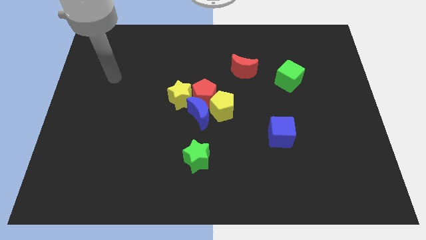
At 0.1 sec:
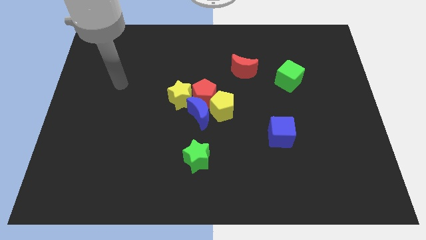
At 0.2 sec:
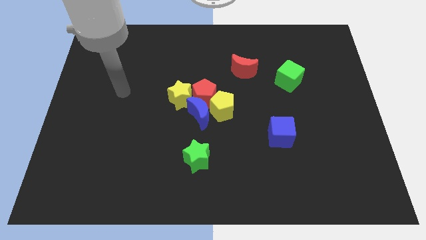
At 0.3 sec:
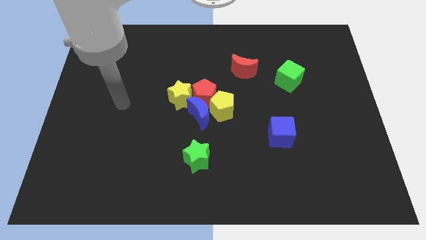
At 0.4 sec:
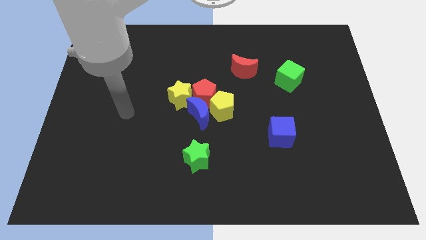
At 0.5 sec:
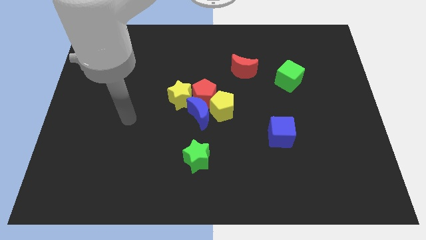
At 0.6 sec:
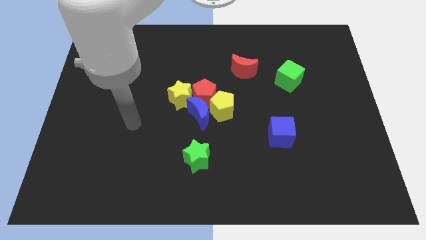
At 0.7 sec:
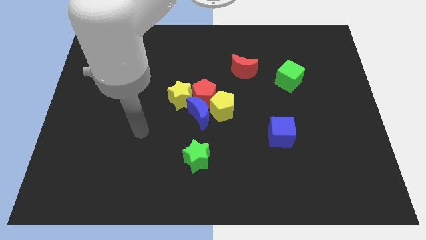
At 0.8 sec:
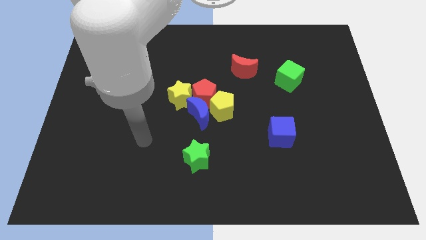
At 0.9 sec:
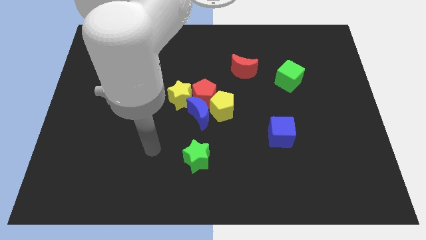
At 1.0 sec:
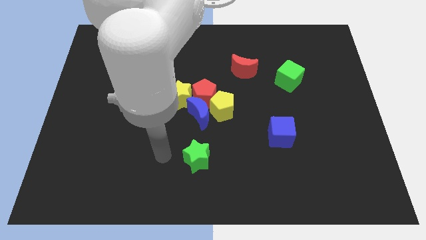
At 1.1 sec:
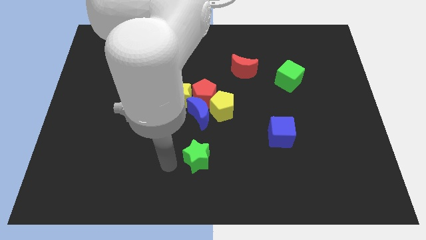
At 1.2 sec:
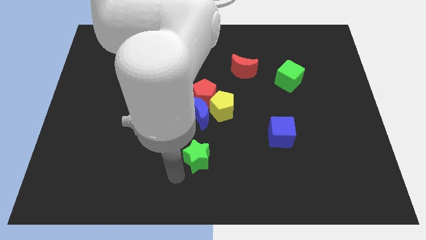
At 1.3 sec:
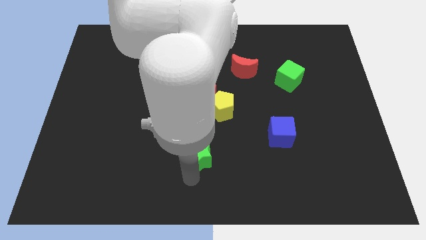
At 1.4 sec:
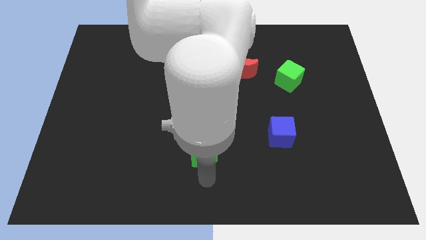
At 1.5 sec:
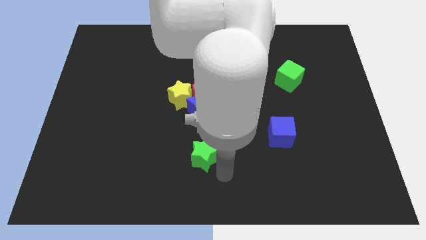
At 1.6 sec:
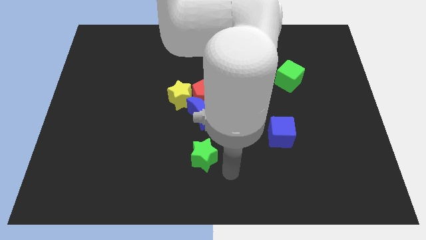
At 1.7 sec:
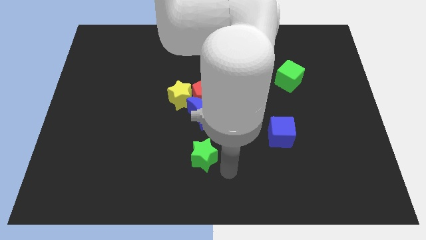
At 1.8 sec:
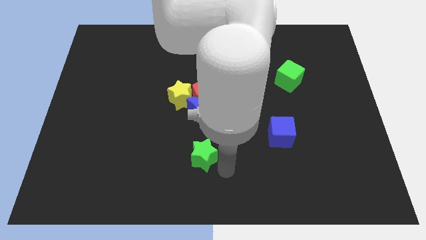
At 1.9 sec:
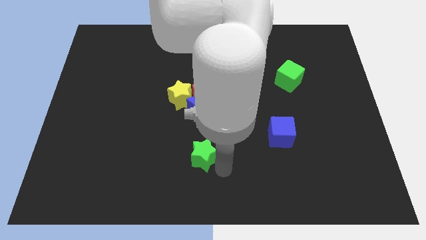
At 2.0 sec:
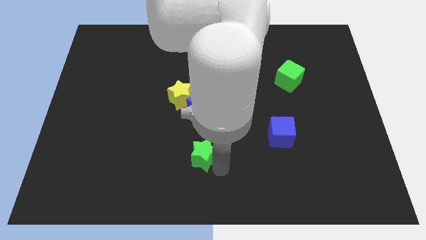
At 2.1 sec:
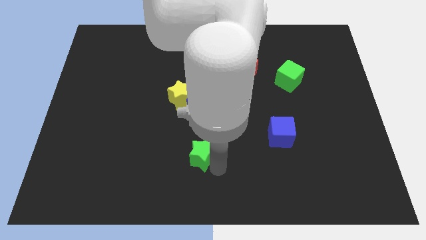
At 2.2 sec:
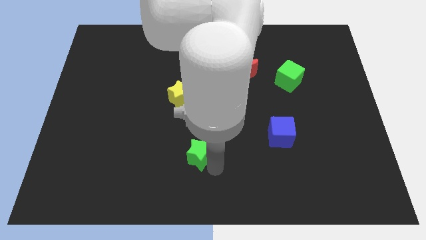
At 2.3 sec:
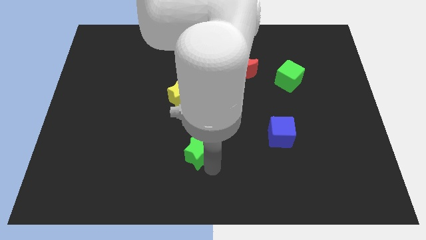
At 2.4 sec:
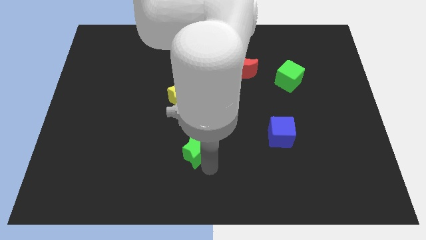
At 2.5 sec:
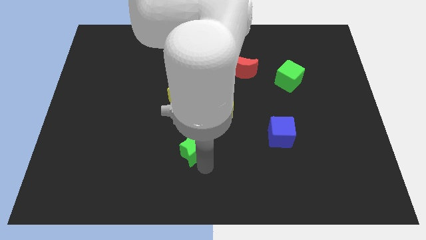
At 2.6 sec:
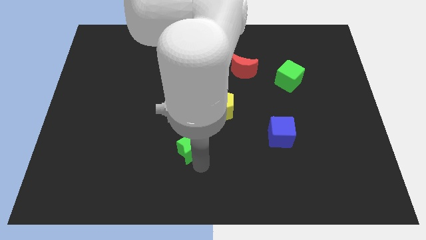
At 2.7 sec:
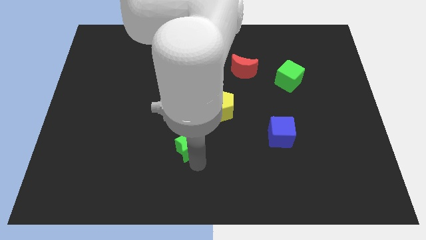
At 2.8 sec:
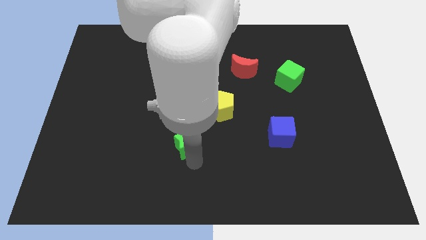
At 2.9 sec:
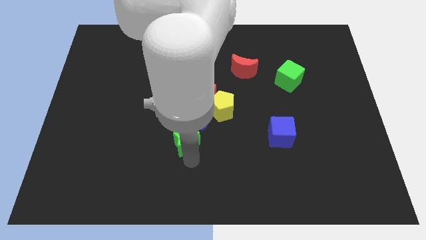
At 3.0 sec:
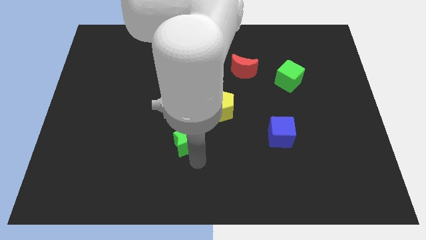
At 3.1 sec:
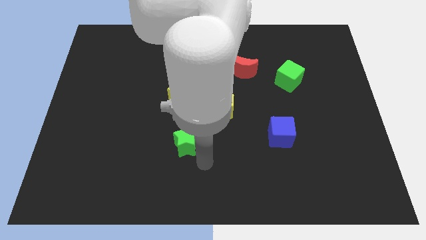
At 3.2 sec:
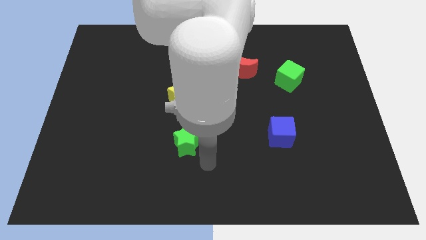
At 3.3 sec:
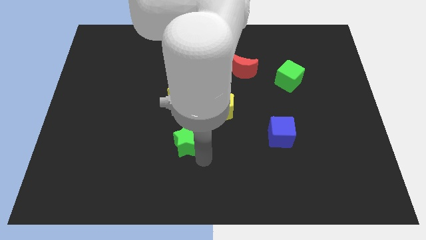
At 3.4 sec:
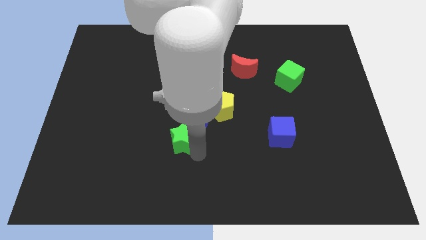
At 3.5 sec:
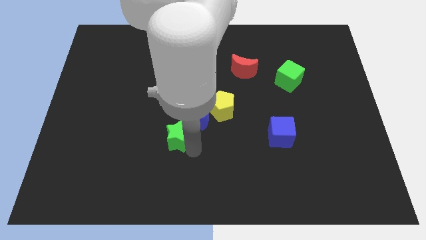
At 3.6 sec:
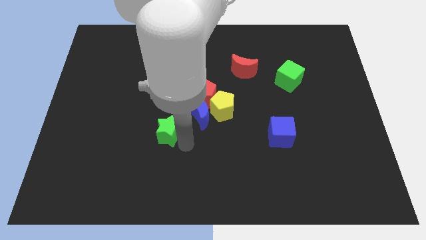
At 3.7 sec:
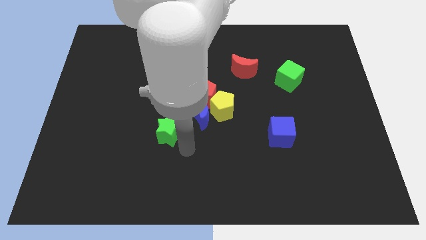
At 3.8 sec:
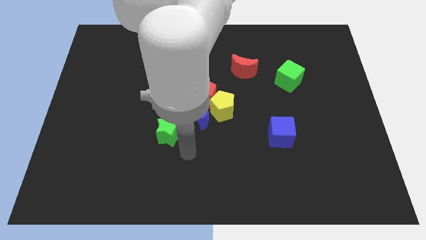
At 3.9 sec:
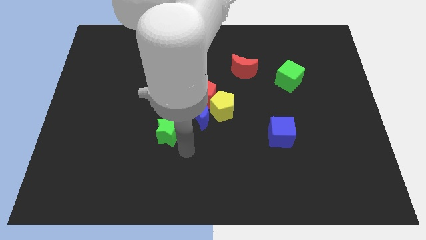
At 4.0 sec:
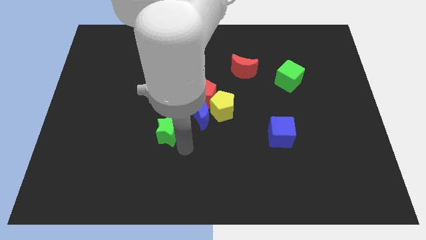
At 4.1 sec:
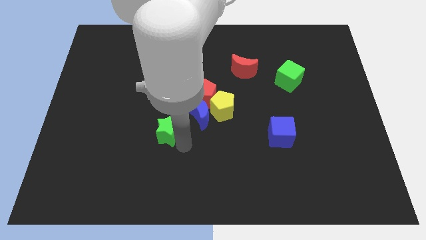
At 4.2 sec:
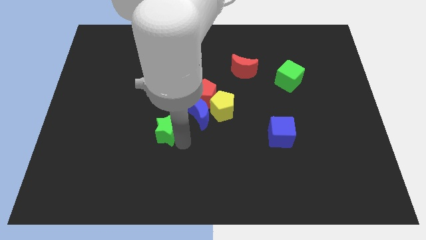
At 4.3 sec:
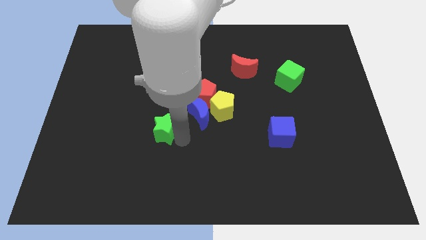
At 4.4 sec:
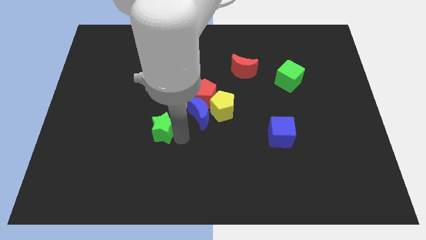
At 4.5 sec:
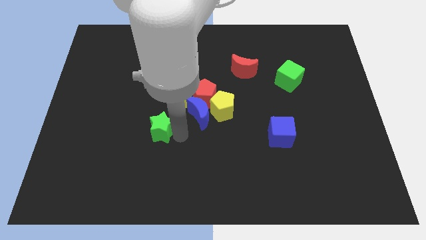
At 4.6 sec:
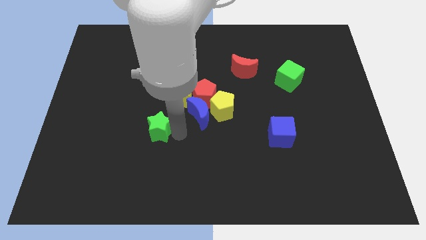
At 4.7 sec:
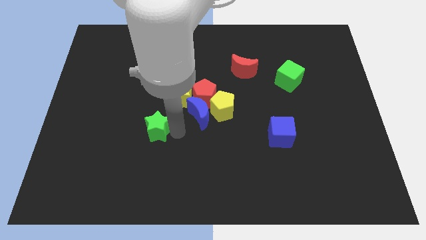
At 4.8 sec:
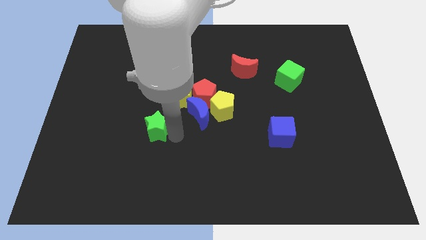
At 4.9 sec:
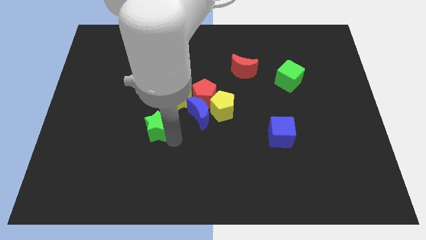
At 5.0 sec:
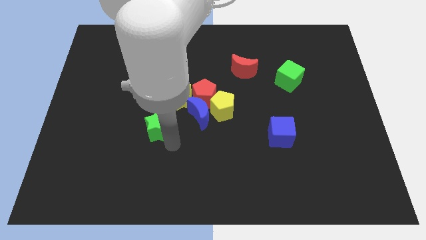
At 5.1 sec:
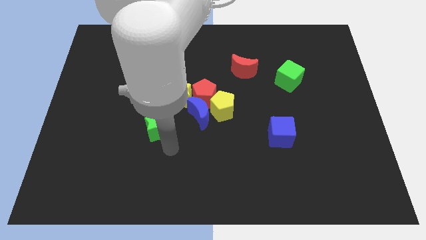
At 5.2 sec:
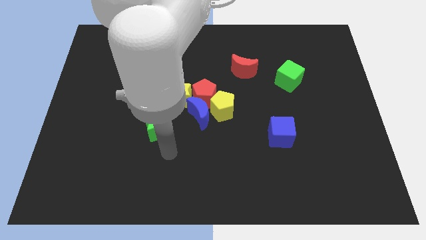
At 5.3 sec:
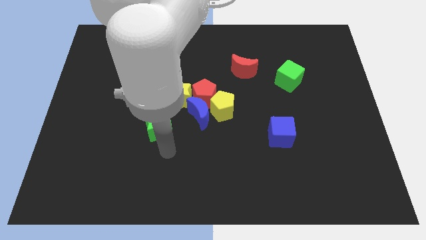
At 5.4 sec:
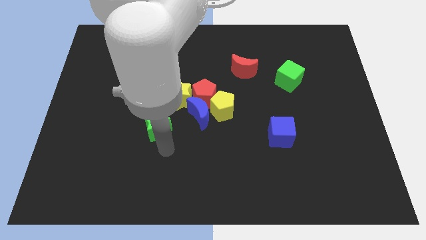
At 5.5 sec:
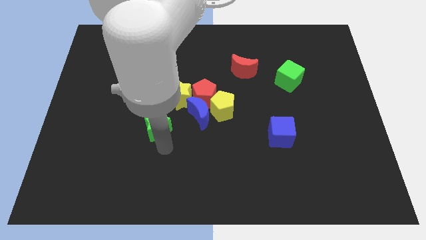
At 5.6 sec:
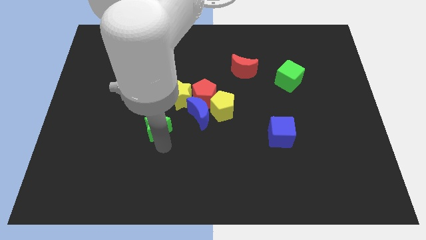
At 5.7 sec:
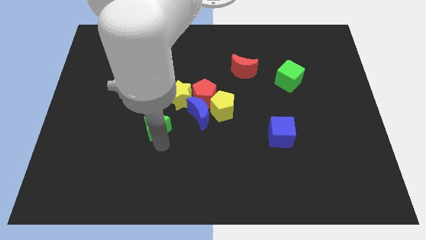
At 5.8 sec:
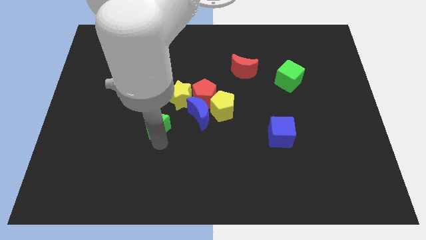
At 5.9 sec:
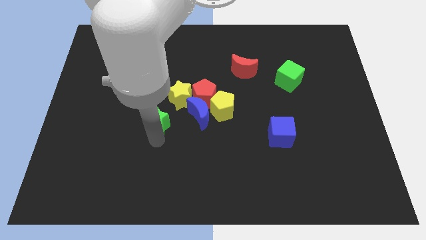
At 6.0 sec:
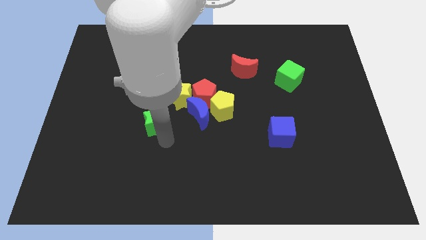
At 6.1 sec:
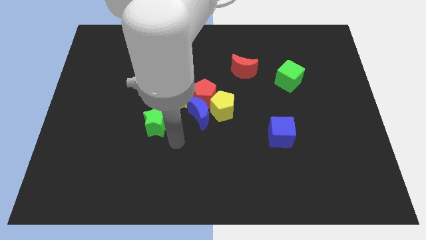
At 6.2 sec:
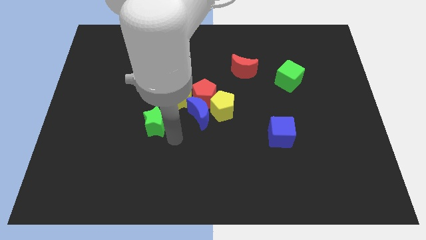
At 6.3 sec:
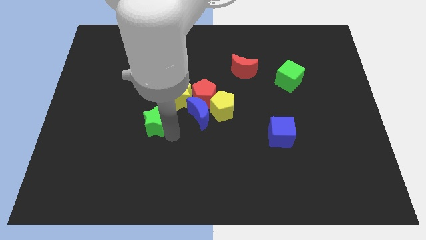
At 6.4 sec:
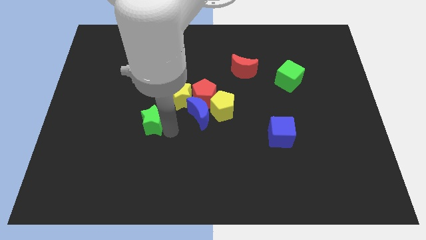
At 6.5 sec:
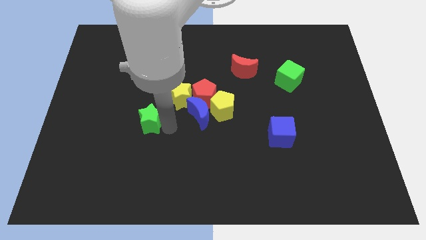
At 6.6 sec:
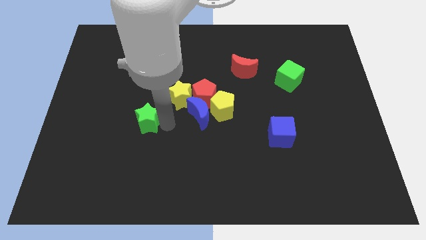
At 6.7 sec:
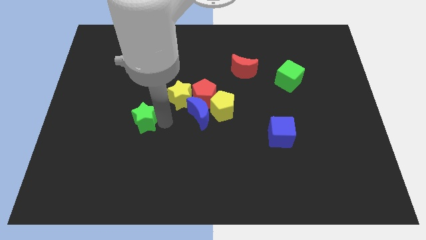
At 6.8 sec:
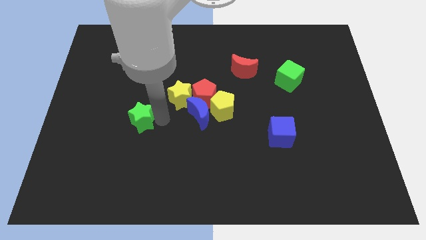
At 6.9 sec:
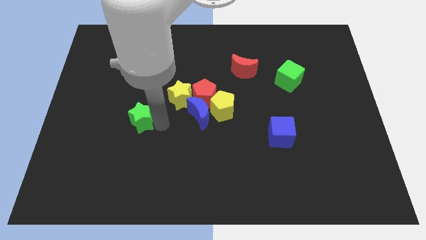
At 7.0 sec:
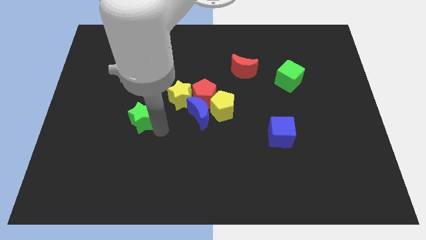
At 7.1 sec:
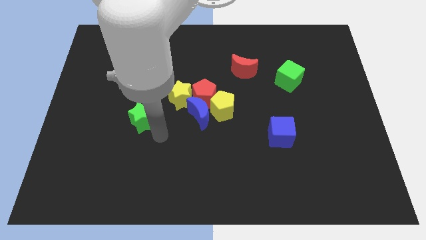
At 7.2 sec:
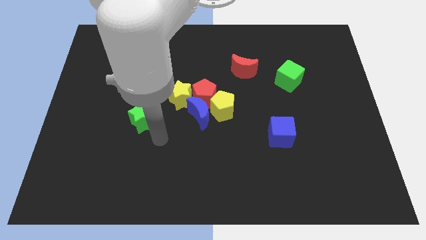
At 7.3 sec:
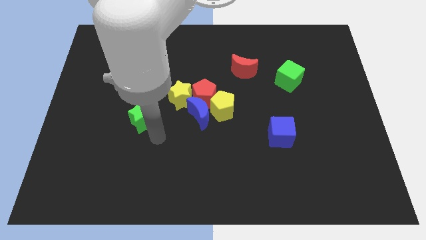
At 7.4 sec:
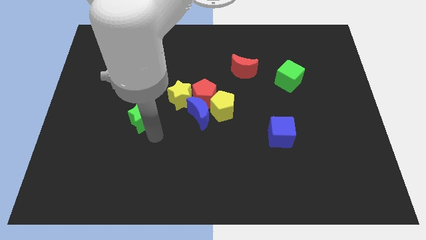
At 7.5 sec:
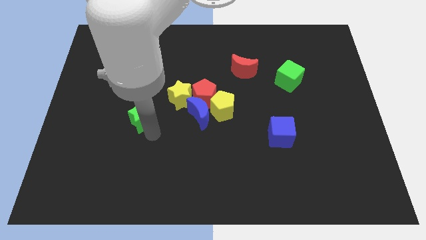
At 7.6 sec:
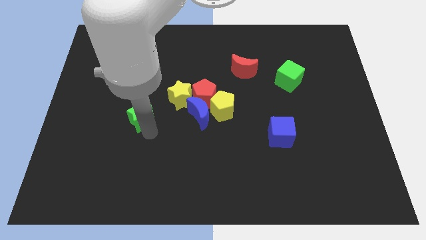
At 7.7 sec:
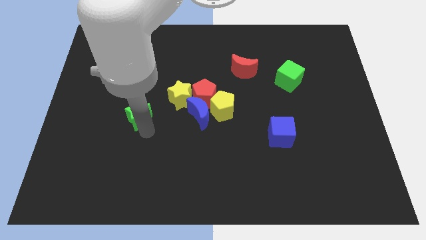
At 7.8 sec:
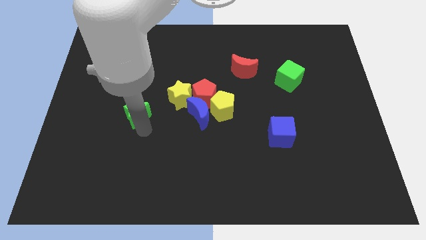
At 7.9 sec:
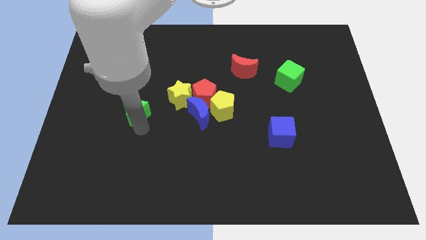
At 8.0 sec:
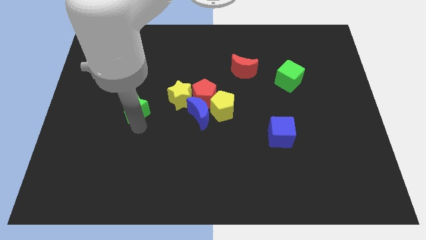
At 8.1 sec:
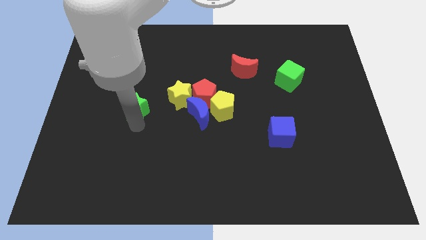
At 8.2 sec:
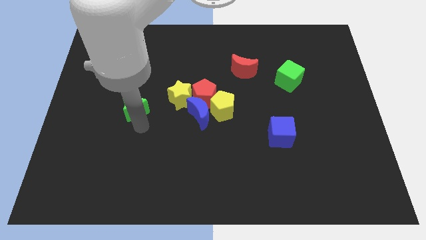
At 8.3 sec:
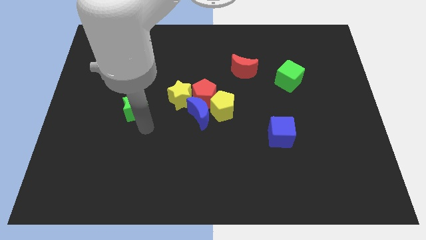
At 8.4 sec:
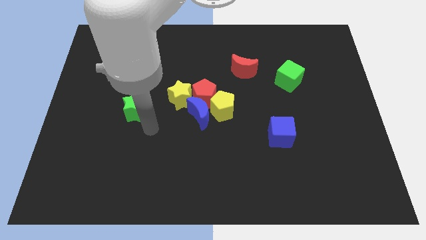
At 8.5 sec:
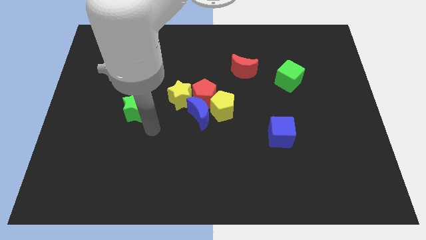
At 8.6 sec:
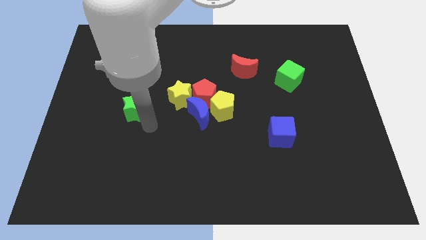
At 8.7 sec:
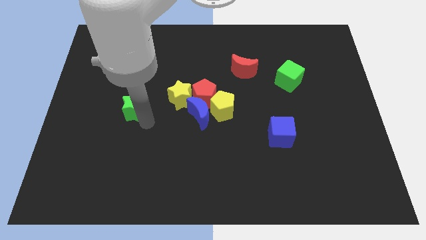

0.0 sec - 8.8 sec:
push the green star diagonally up and to the left
